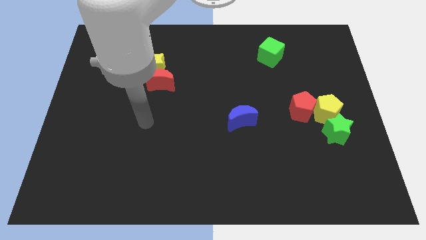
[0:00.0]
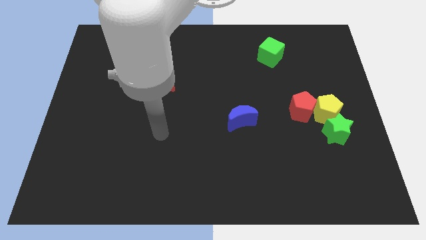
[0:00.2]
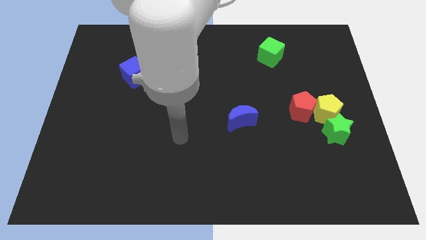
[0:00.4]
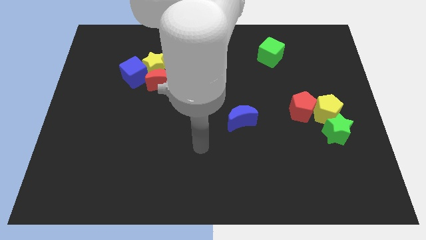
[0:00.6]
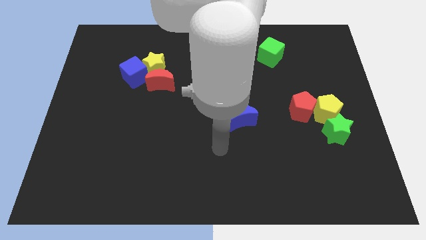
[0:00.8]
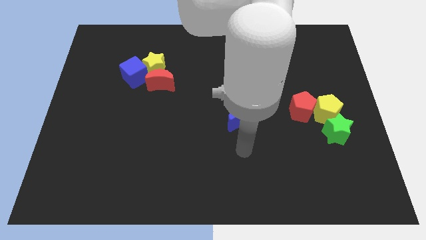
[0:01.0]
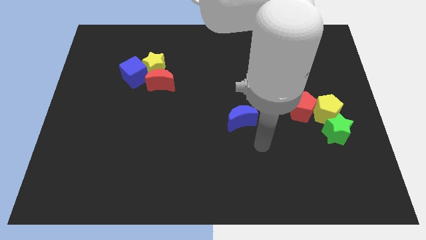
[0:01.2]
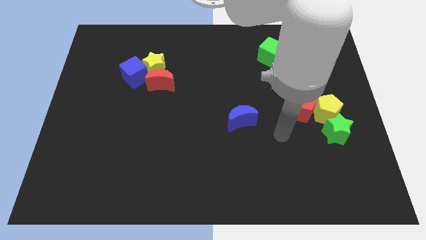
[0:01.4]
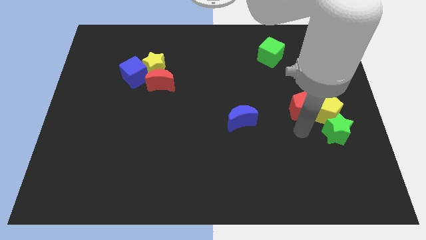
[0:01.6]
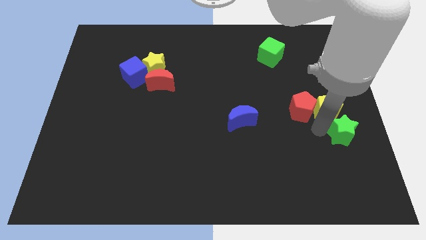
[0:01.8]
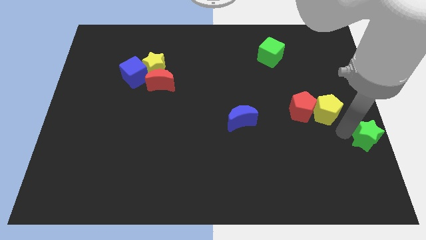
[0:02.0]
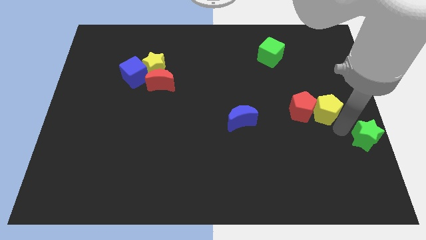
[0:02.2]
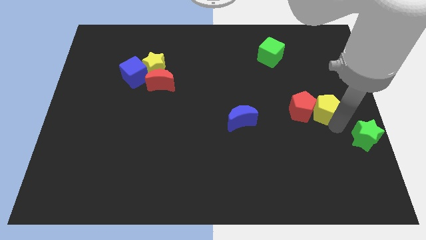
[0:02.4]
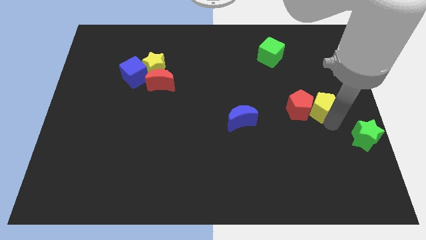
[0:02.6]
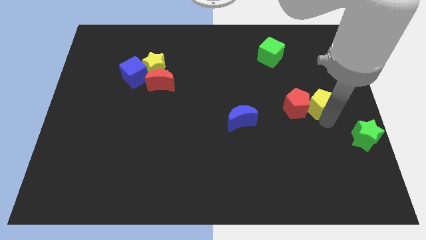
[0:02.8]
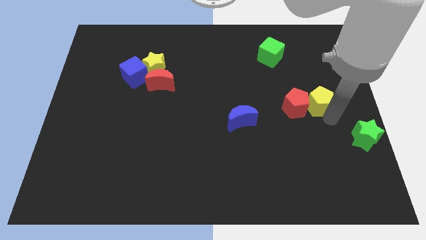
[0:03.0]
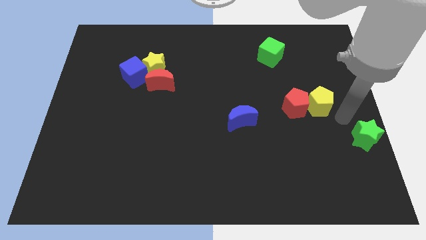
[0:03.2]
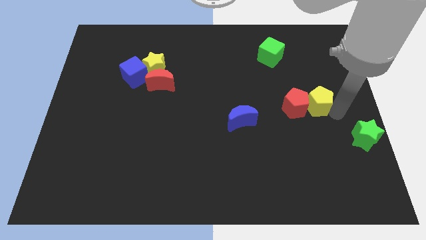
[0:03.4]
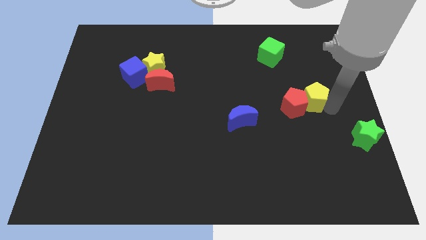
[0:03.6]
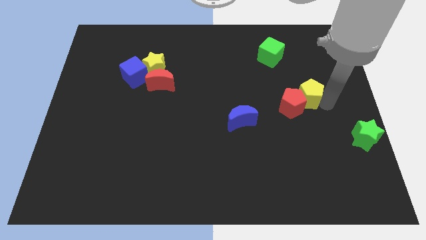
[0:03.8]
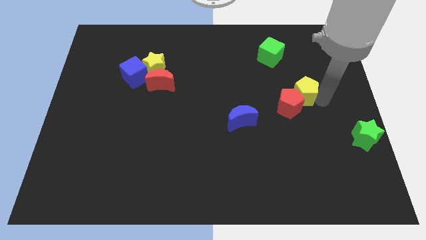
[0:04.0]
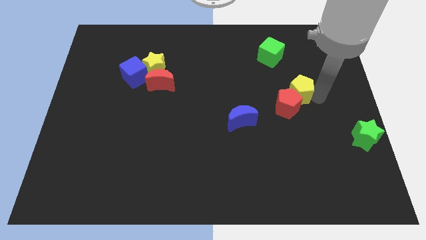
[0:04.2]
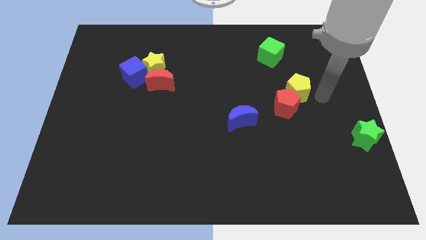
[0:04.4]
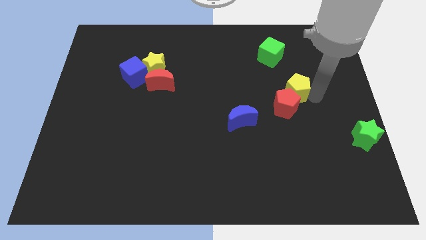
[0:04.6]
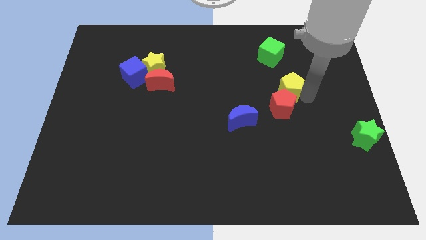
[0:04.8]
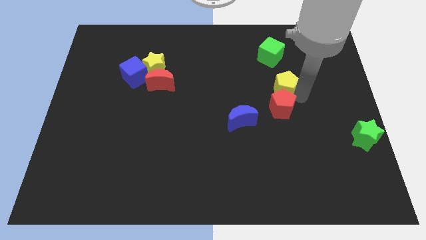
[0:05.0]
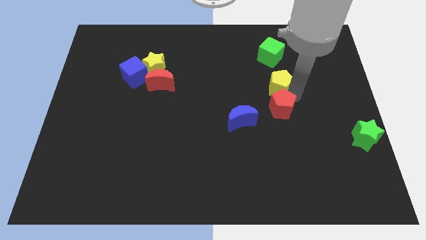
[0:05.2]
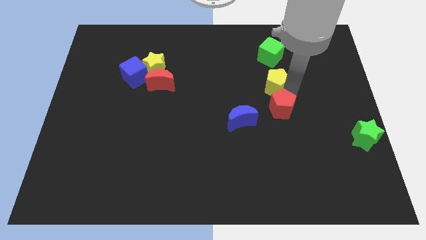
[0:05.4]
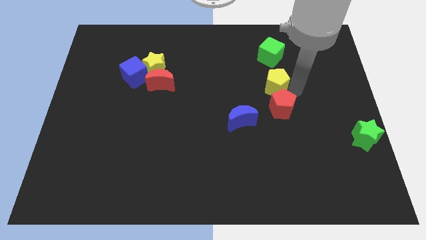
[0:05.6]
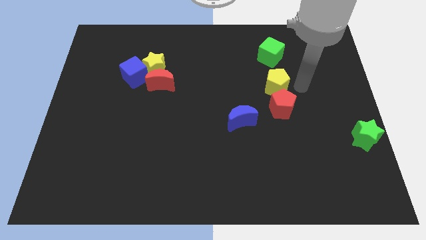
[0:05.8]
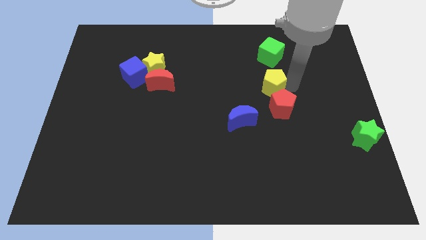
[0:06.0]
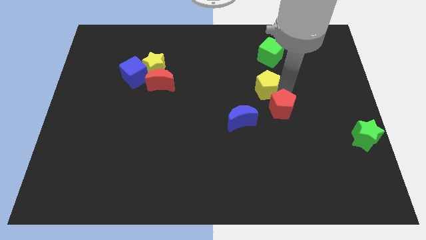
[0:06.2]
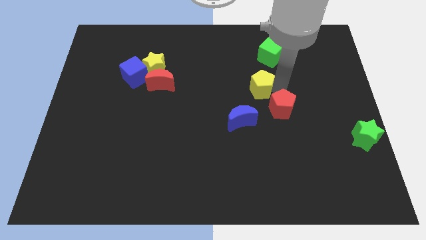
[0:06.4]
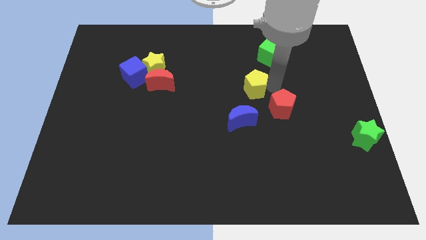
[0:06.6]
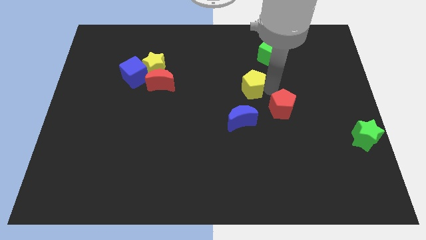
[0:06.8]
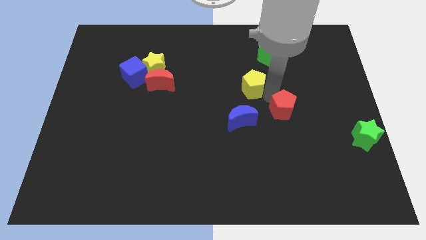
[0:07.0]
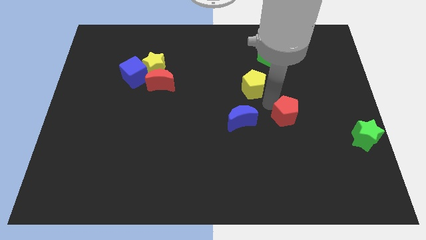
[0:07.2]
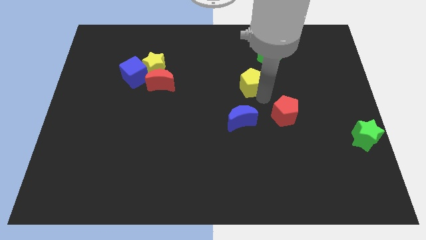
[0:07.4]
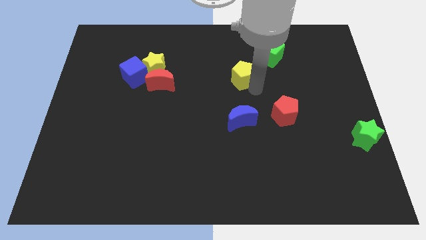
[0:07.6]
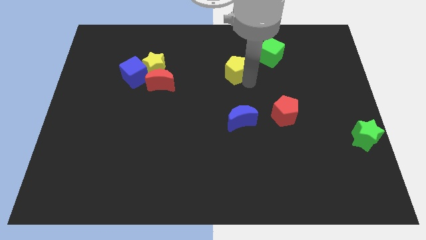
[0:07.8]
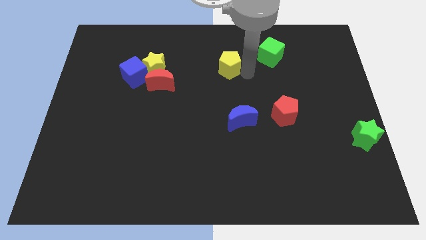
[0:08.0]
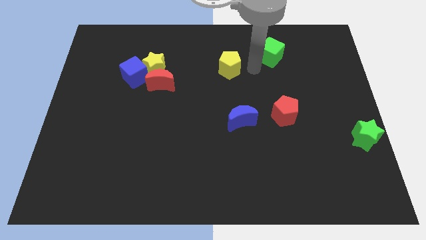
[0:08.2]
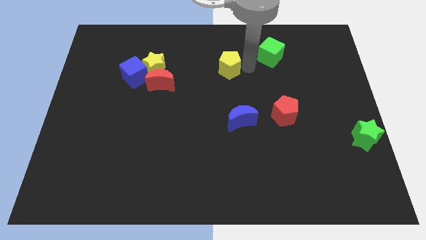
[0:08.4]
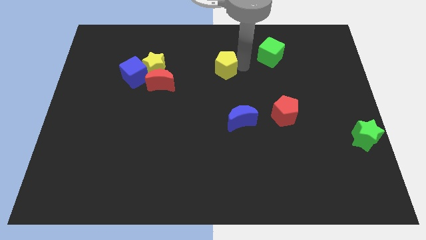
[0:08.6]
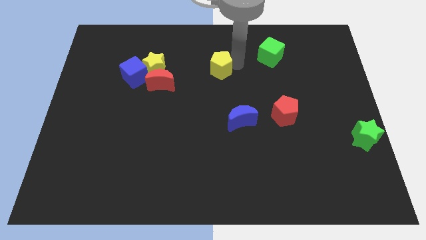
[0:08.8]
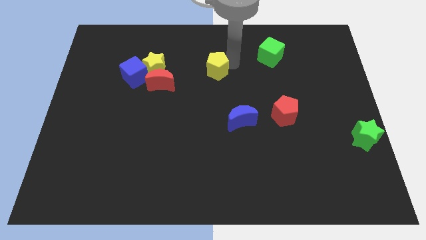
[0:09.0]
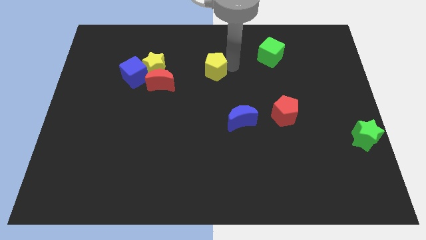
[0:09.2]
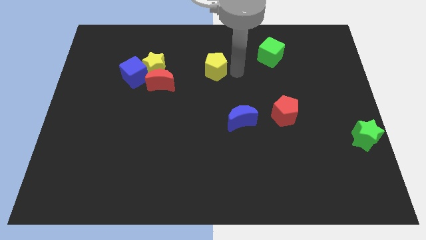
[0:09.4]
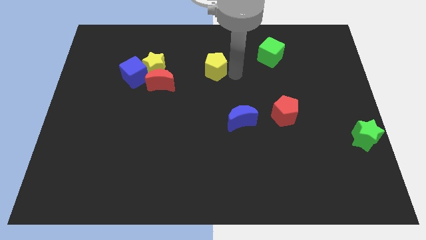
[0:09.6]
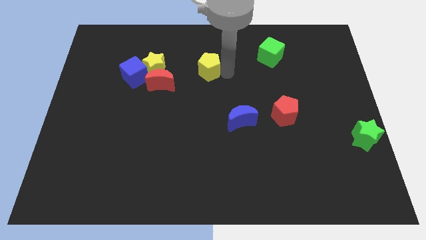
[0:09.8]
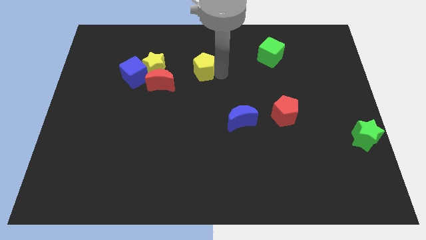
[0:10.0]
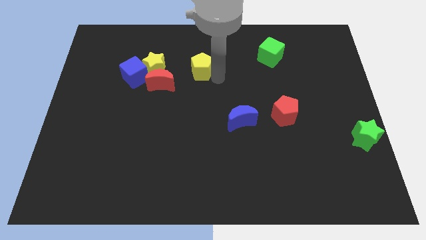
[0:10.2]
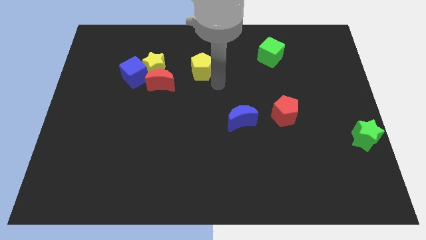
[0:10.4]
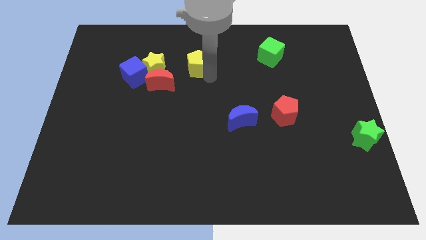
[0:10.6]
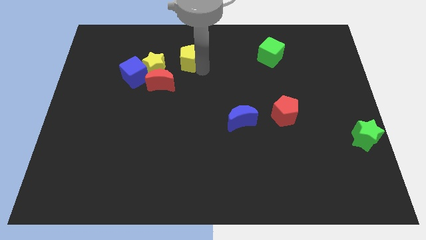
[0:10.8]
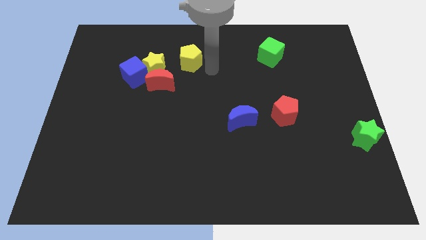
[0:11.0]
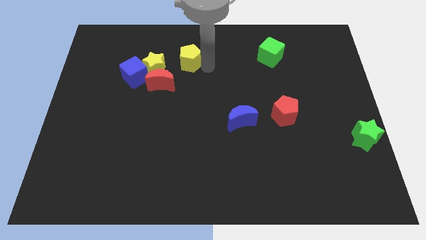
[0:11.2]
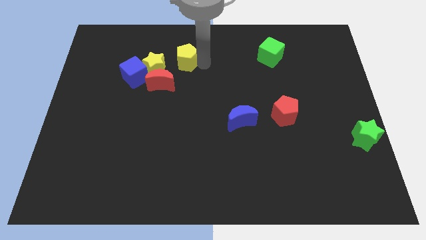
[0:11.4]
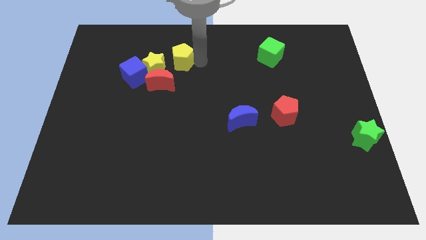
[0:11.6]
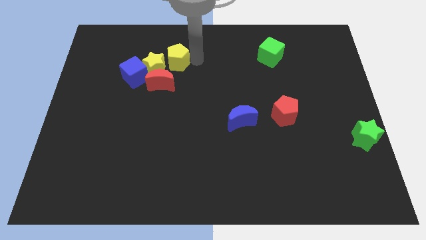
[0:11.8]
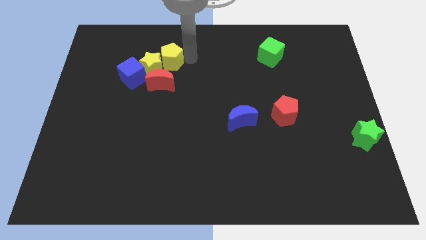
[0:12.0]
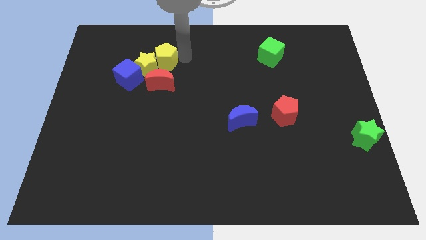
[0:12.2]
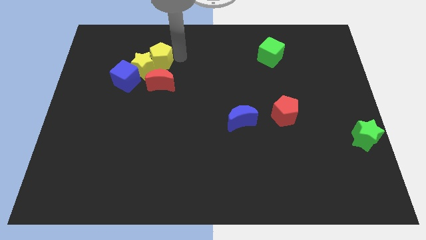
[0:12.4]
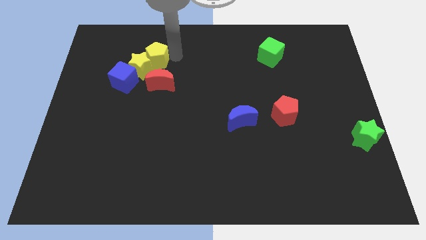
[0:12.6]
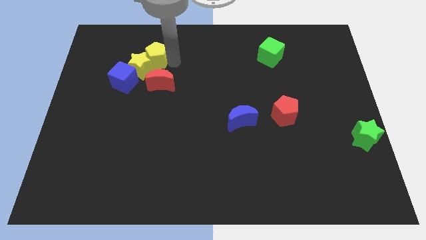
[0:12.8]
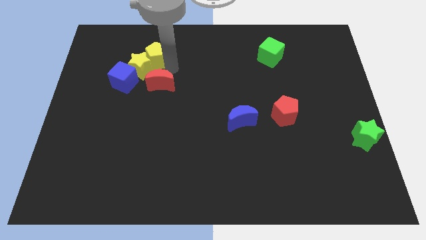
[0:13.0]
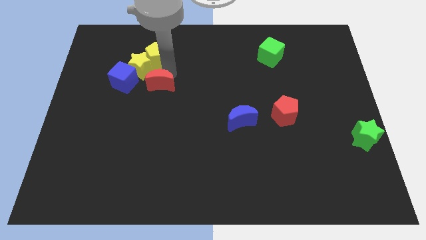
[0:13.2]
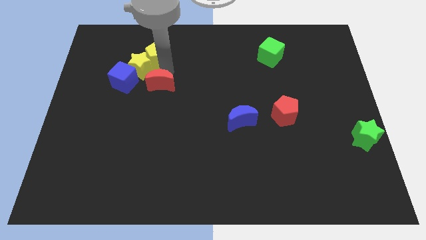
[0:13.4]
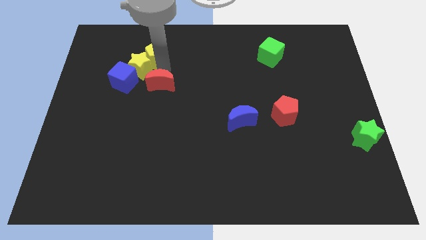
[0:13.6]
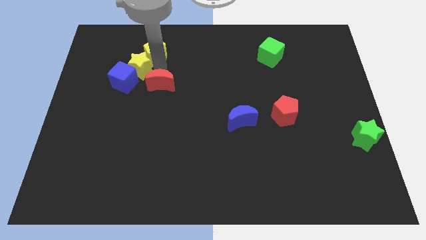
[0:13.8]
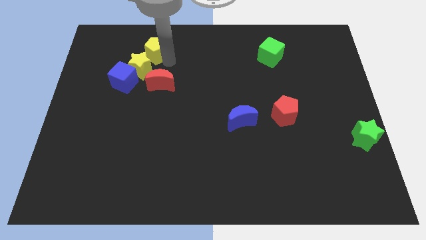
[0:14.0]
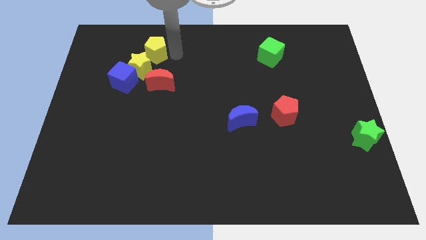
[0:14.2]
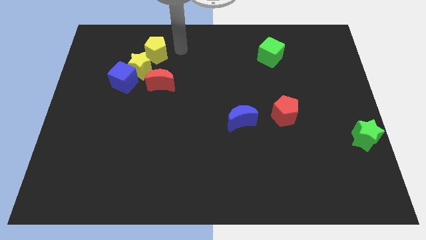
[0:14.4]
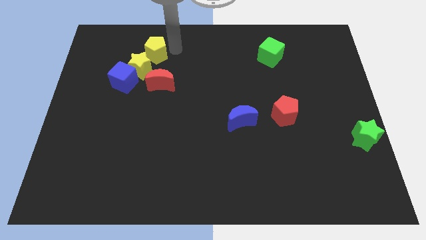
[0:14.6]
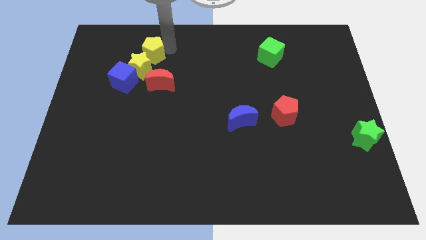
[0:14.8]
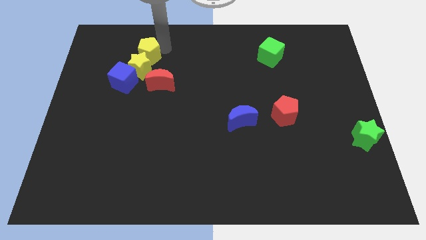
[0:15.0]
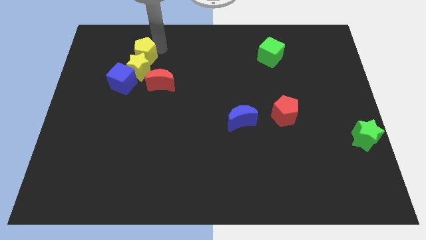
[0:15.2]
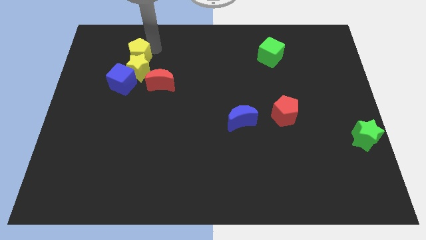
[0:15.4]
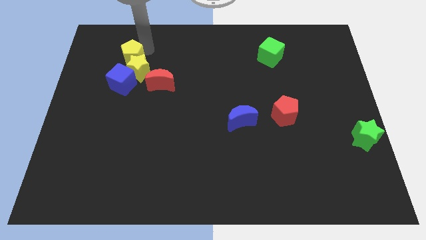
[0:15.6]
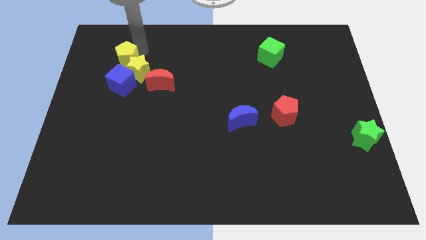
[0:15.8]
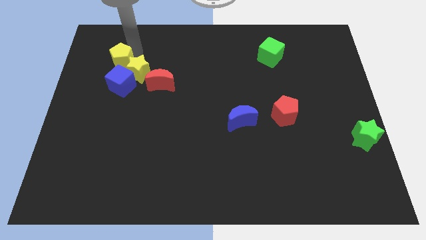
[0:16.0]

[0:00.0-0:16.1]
put the yellow pentagon to the top left of the blue cube

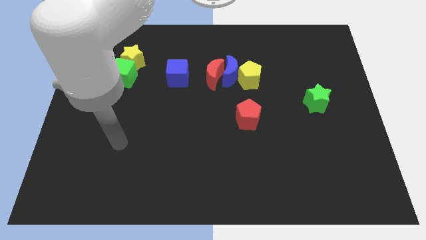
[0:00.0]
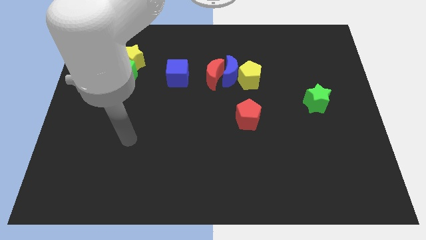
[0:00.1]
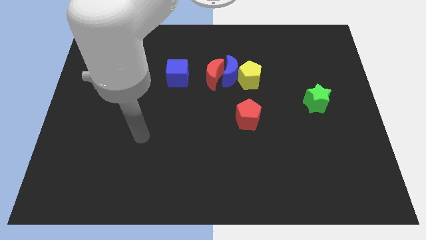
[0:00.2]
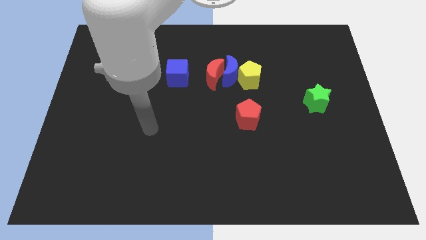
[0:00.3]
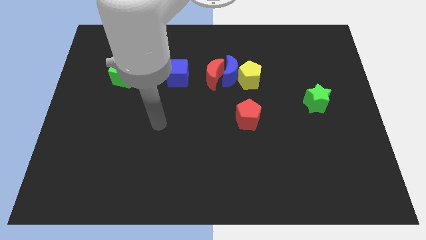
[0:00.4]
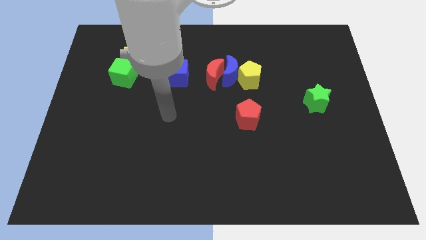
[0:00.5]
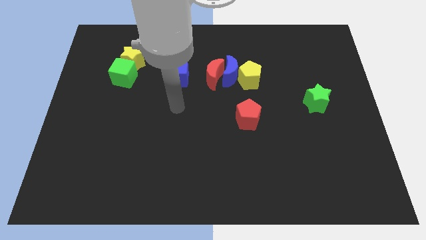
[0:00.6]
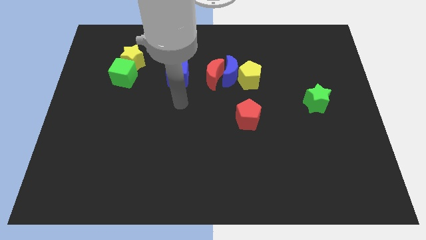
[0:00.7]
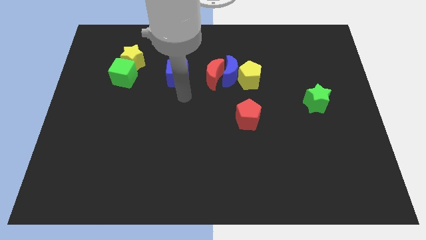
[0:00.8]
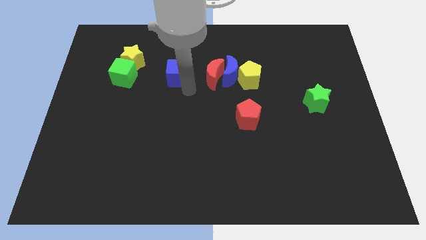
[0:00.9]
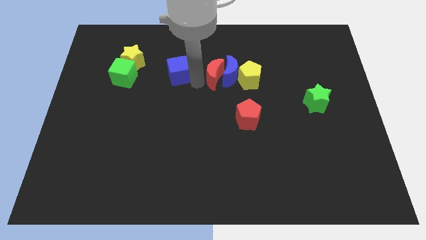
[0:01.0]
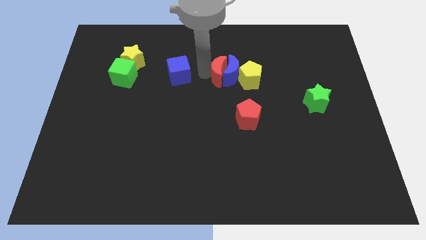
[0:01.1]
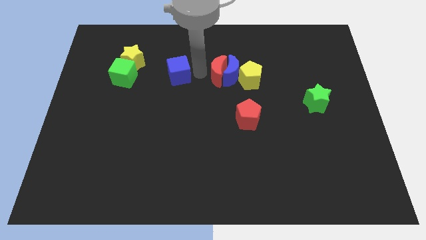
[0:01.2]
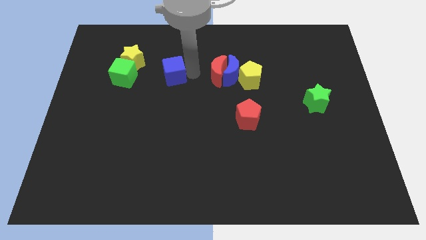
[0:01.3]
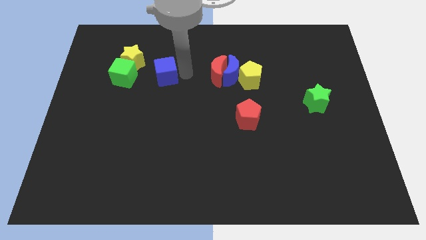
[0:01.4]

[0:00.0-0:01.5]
move the blue cube to the bottom right side of the yellow star
